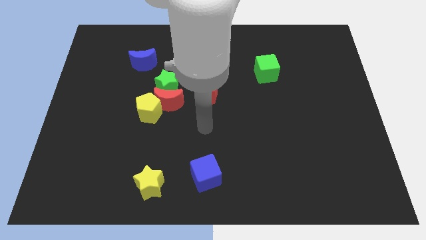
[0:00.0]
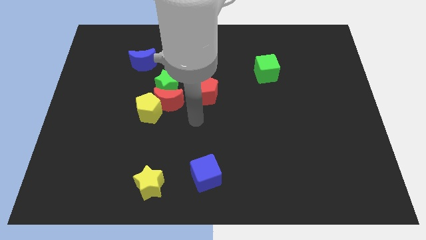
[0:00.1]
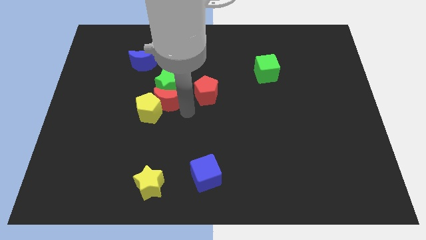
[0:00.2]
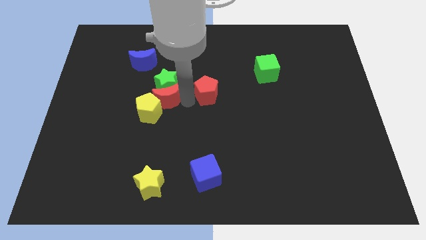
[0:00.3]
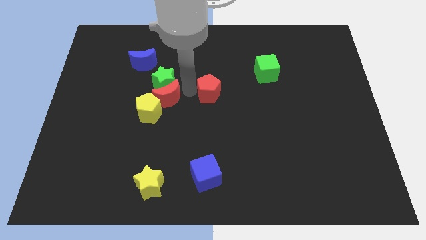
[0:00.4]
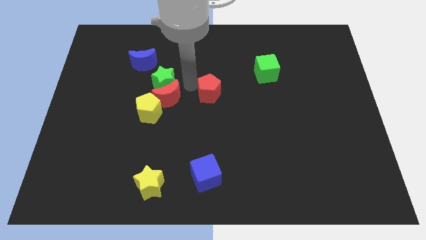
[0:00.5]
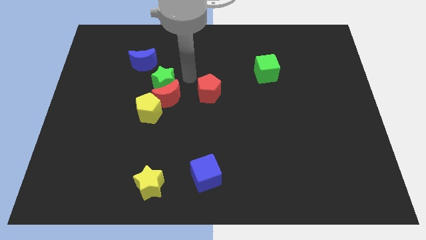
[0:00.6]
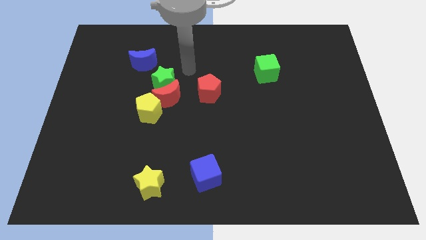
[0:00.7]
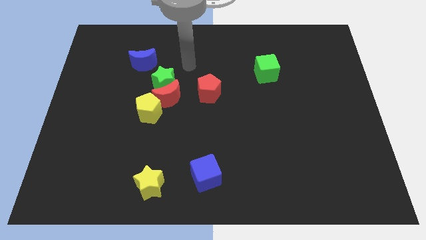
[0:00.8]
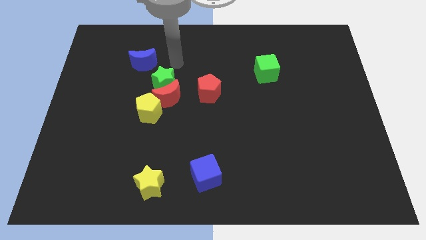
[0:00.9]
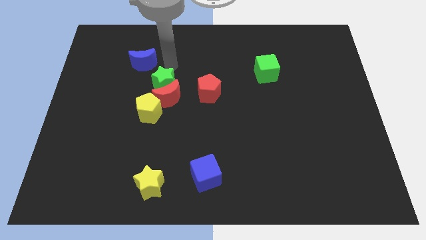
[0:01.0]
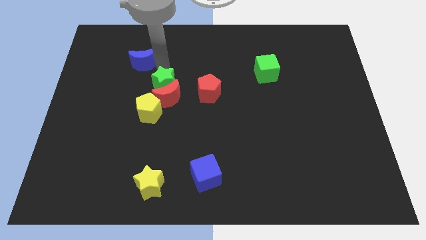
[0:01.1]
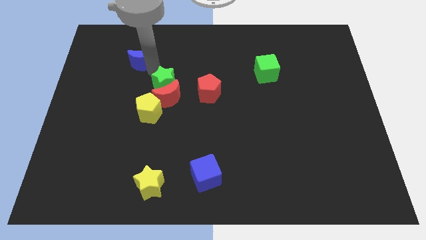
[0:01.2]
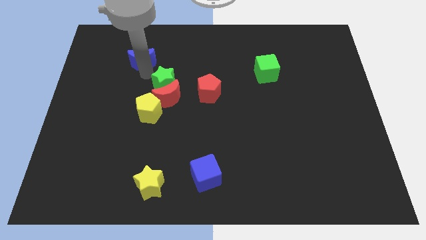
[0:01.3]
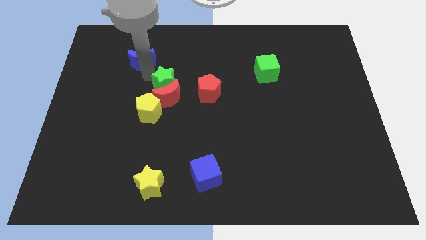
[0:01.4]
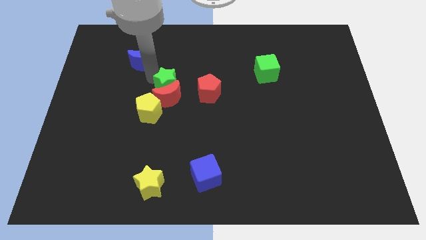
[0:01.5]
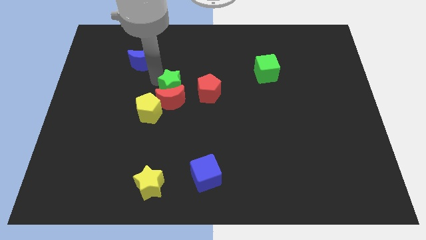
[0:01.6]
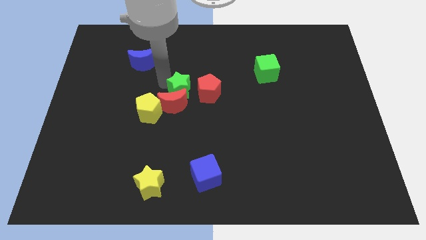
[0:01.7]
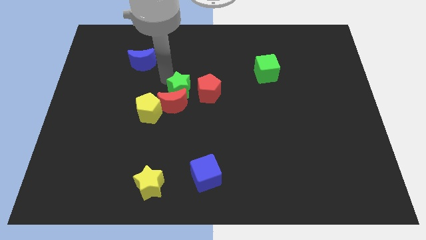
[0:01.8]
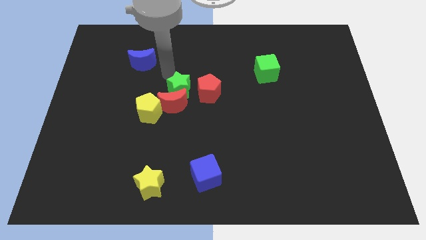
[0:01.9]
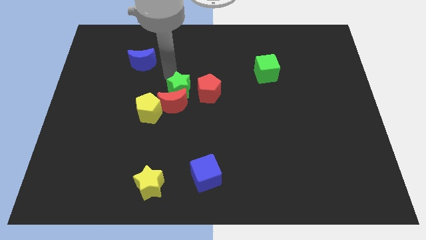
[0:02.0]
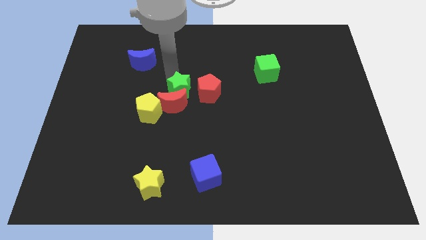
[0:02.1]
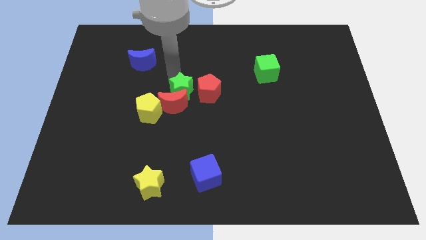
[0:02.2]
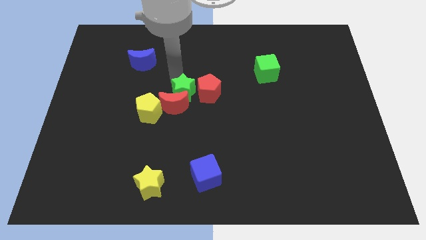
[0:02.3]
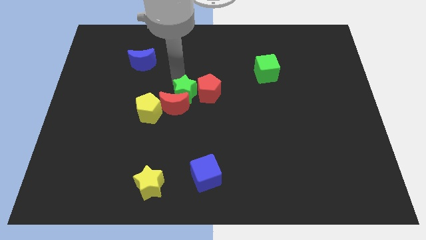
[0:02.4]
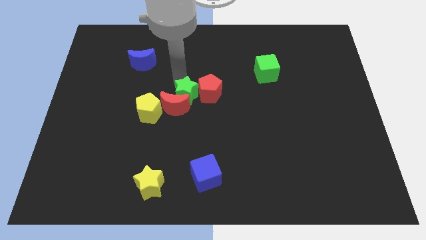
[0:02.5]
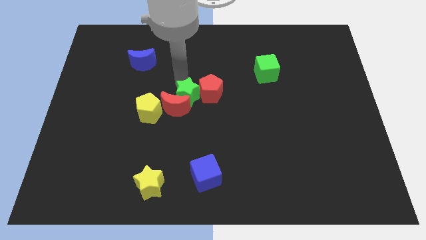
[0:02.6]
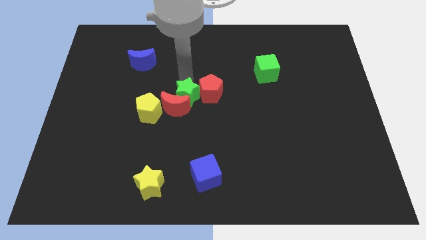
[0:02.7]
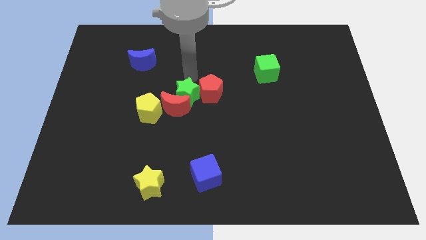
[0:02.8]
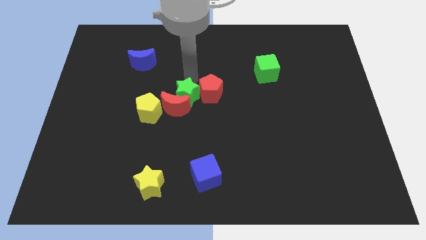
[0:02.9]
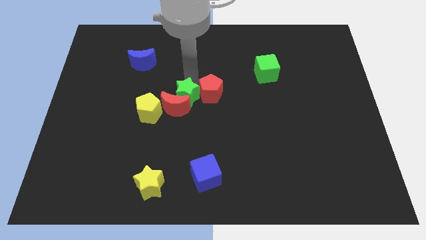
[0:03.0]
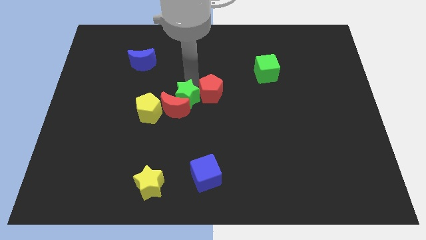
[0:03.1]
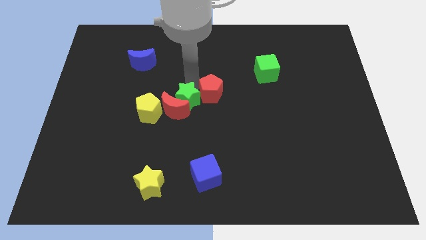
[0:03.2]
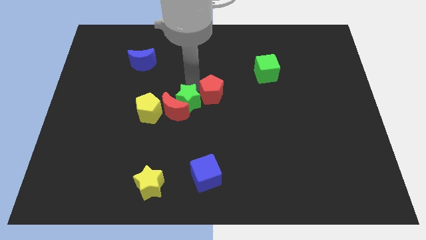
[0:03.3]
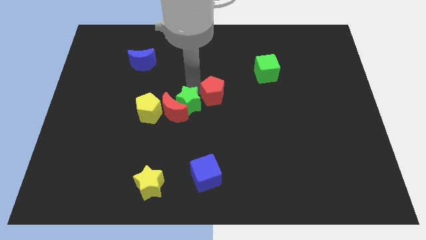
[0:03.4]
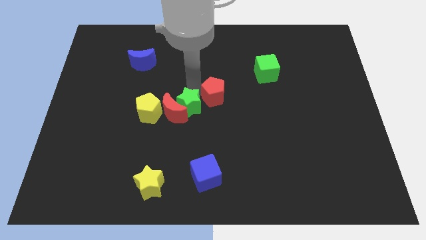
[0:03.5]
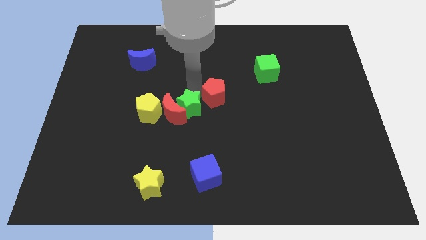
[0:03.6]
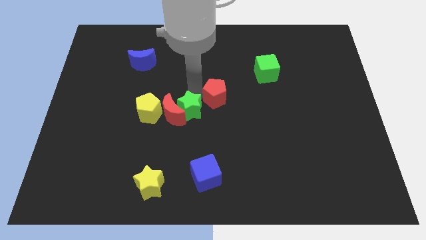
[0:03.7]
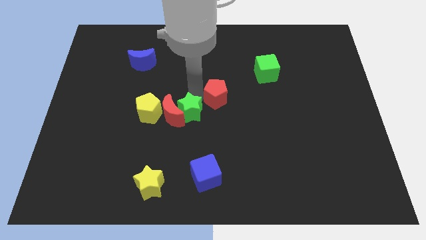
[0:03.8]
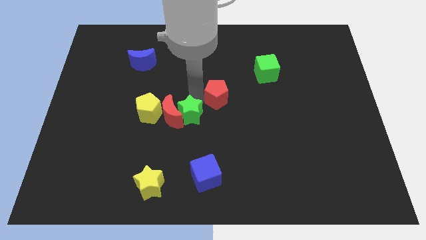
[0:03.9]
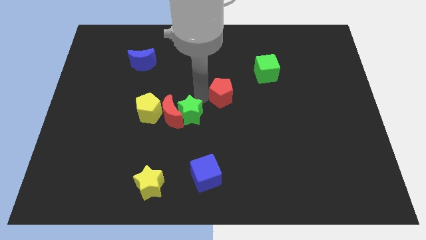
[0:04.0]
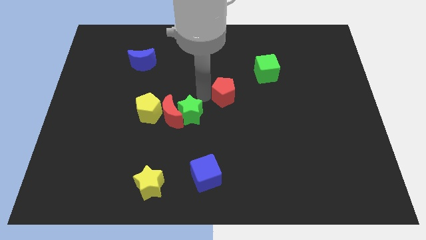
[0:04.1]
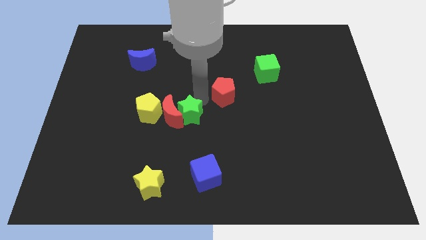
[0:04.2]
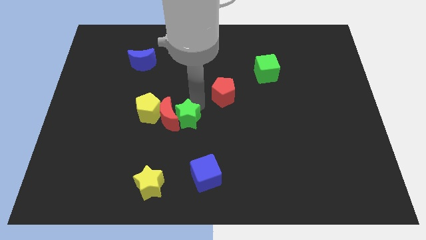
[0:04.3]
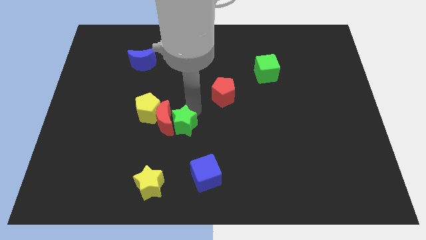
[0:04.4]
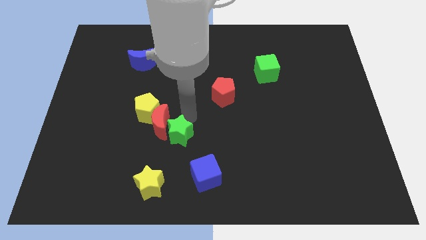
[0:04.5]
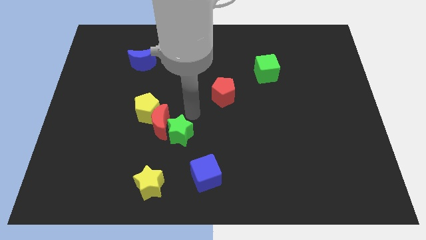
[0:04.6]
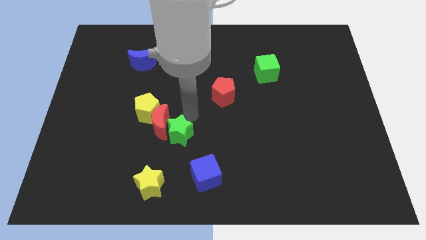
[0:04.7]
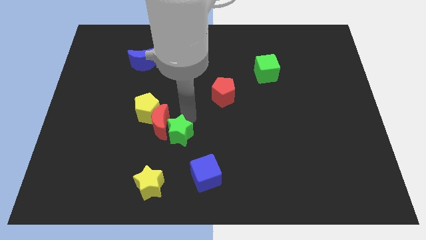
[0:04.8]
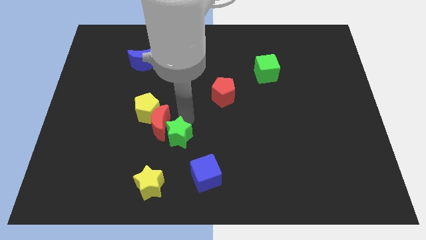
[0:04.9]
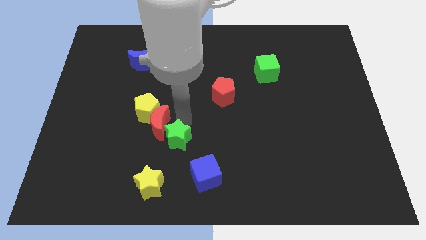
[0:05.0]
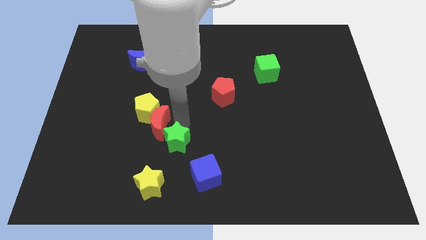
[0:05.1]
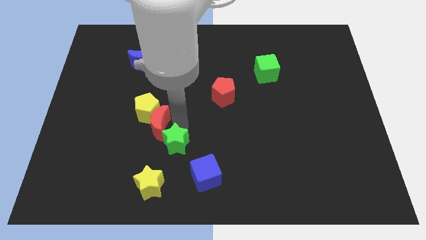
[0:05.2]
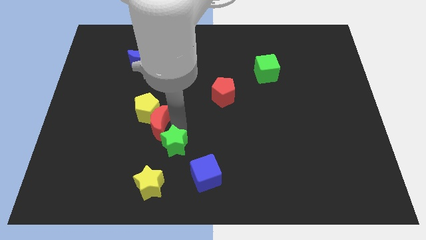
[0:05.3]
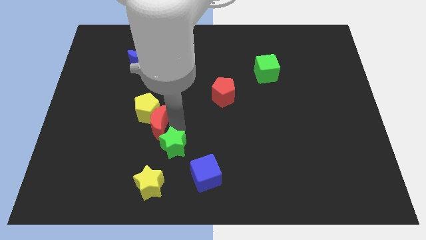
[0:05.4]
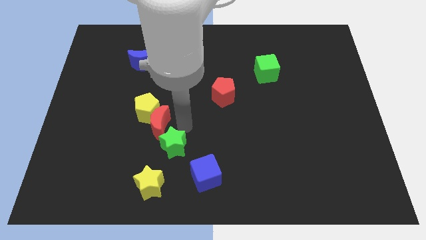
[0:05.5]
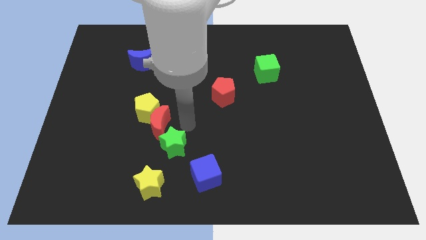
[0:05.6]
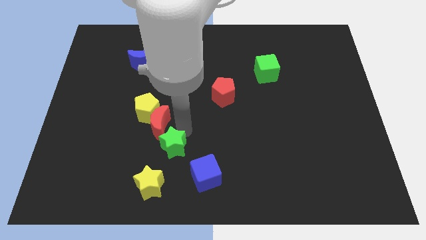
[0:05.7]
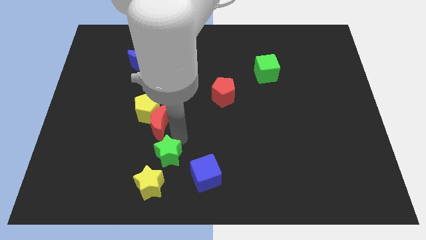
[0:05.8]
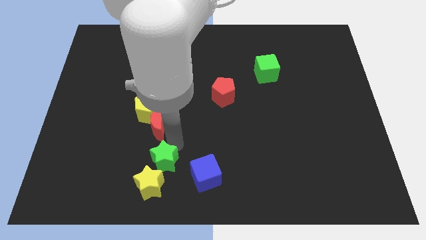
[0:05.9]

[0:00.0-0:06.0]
put the green star close to the yellow star

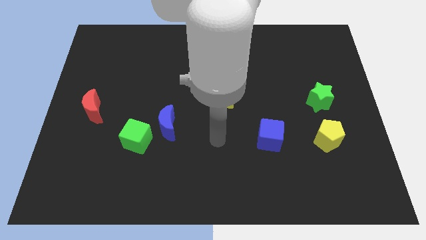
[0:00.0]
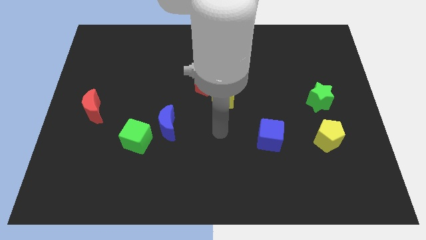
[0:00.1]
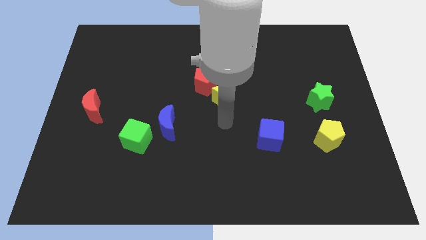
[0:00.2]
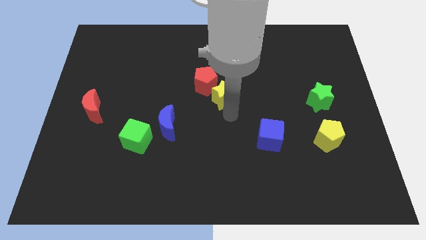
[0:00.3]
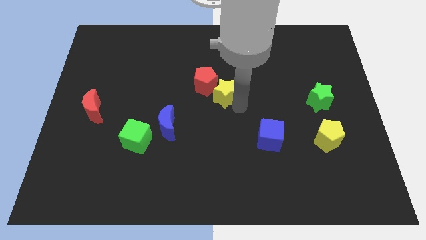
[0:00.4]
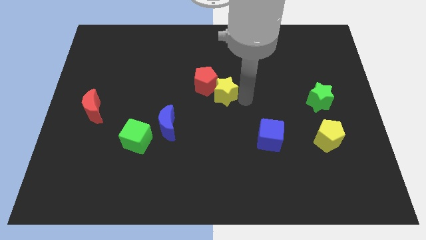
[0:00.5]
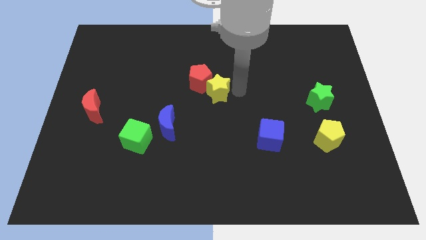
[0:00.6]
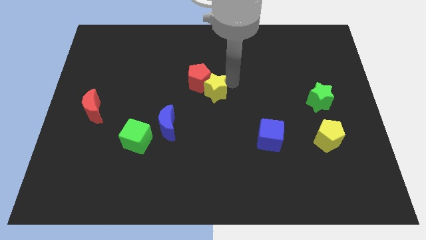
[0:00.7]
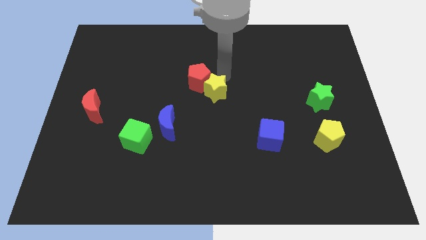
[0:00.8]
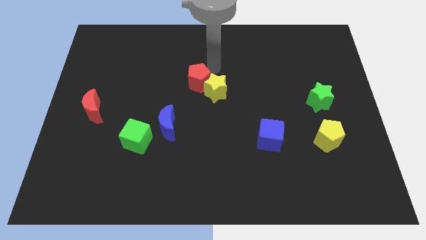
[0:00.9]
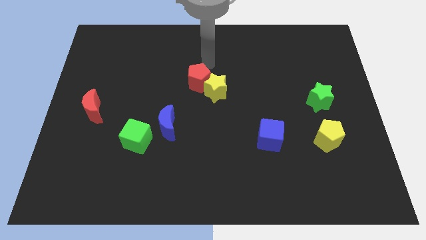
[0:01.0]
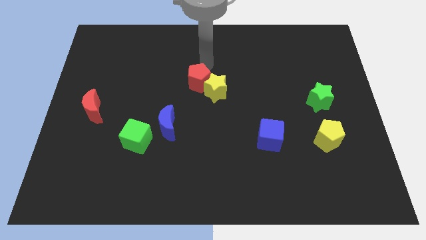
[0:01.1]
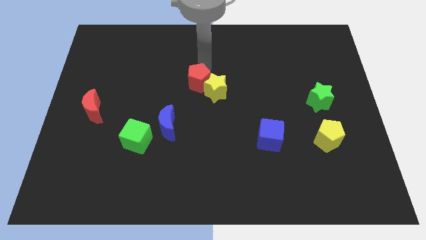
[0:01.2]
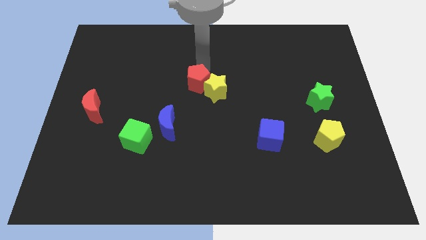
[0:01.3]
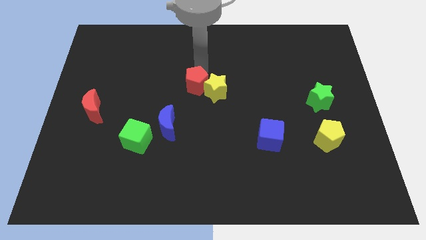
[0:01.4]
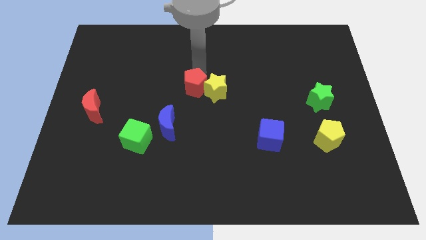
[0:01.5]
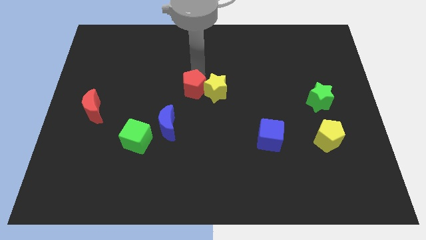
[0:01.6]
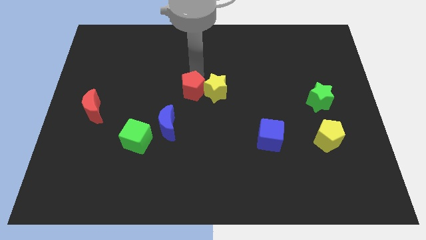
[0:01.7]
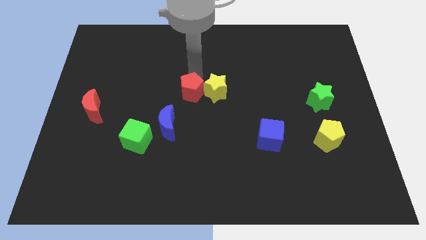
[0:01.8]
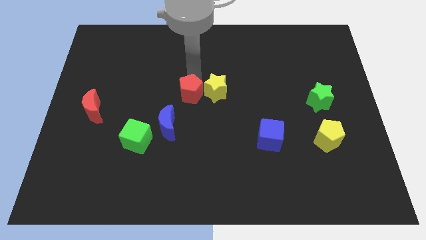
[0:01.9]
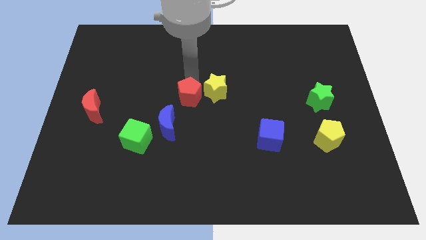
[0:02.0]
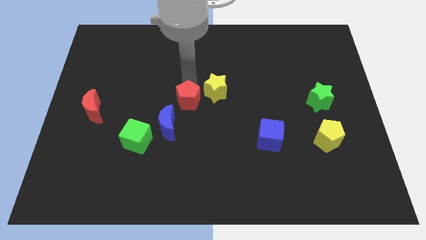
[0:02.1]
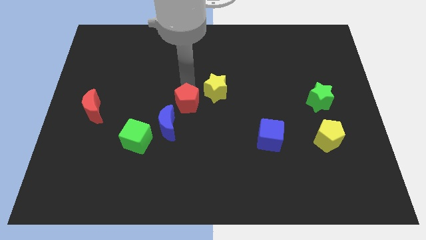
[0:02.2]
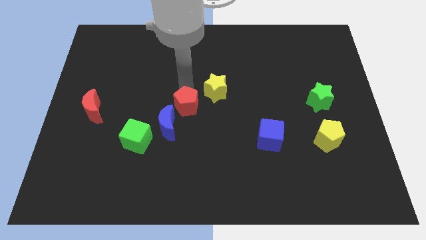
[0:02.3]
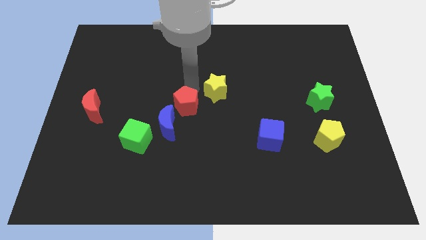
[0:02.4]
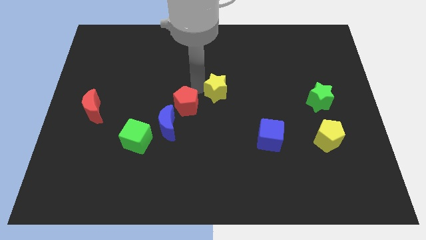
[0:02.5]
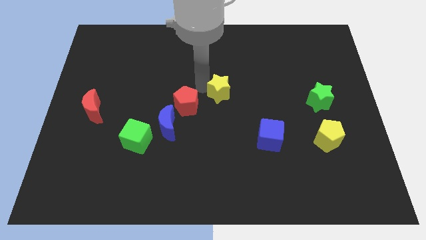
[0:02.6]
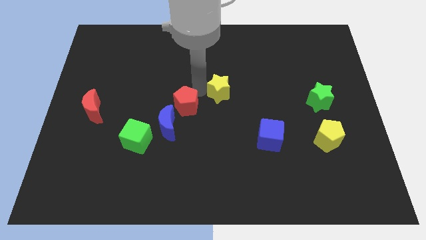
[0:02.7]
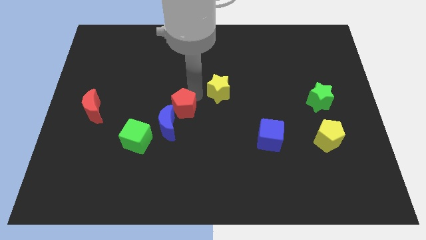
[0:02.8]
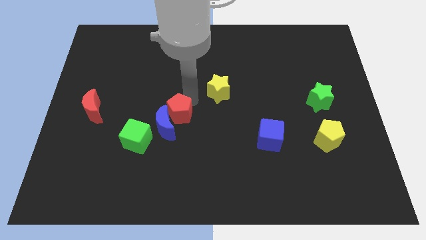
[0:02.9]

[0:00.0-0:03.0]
put the red pentagon towards the blue moon
